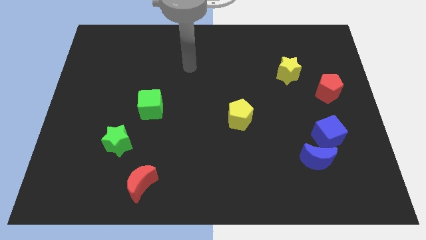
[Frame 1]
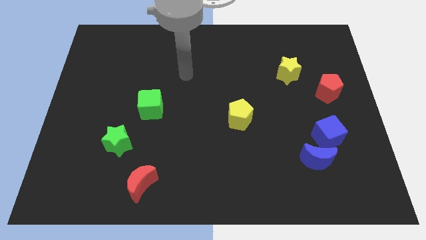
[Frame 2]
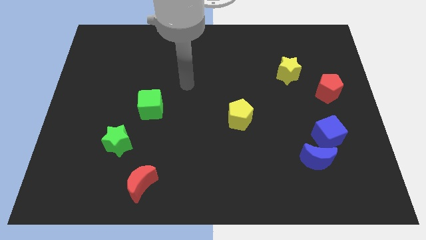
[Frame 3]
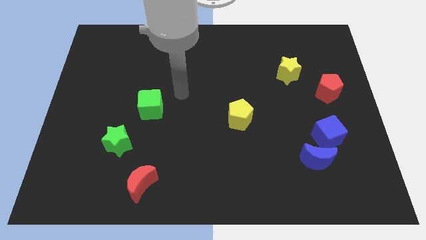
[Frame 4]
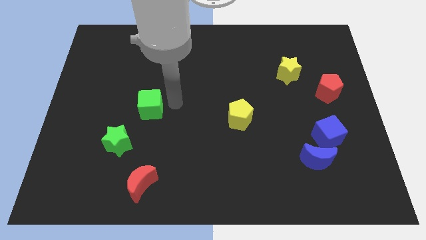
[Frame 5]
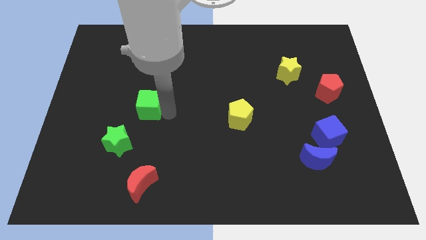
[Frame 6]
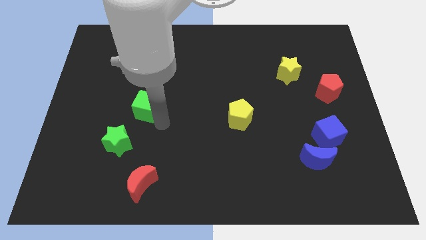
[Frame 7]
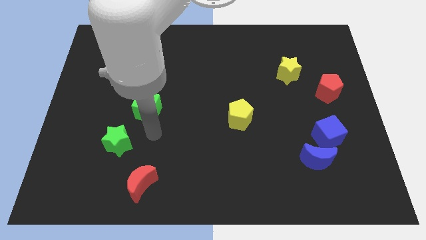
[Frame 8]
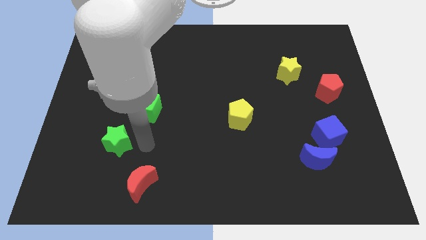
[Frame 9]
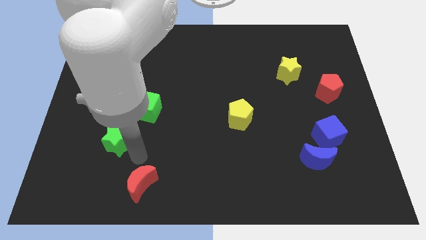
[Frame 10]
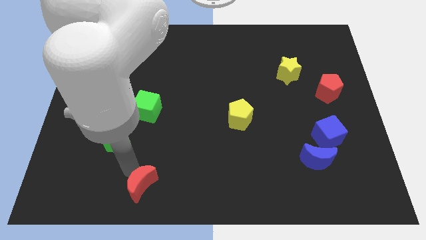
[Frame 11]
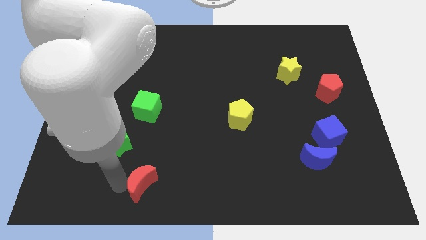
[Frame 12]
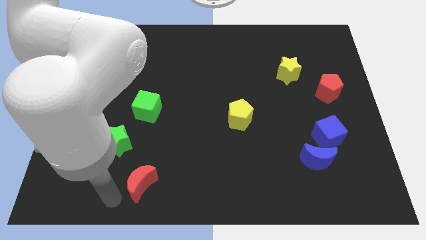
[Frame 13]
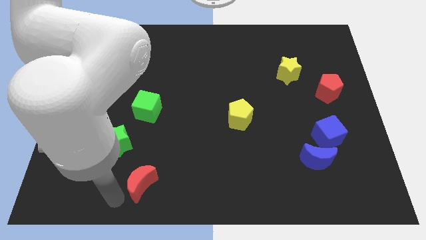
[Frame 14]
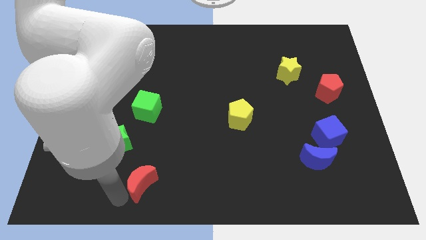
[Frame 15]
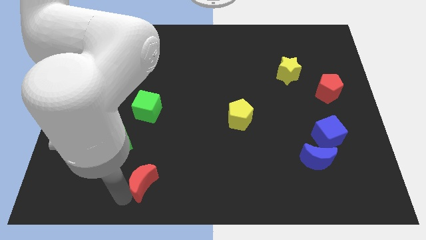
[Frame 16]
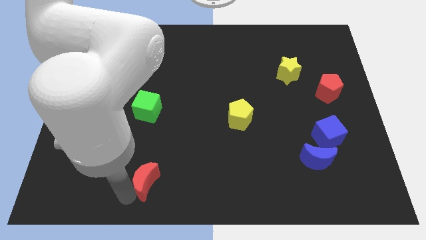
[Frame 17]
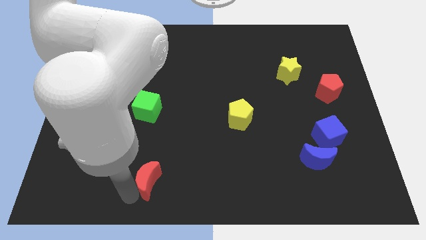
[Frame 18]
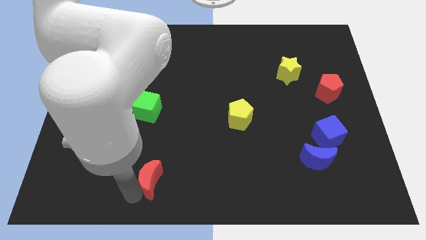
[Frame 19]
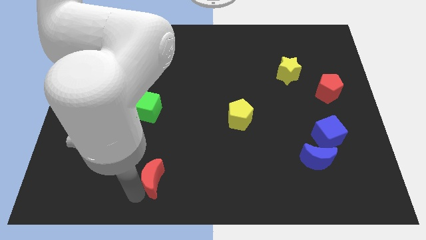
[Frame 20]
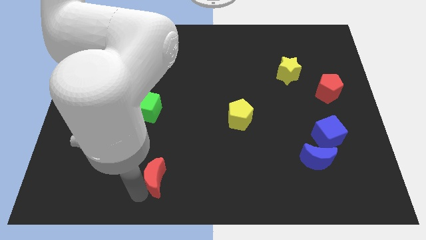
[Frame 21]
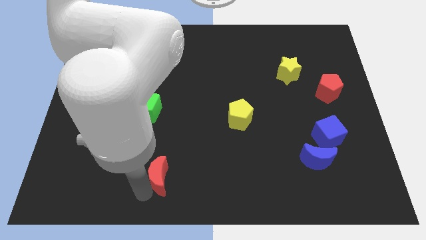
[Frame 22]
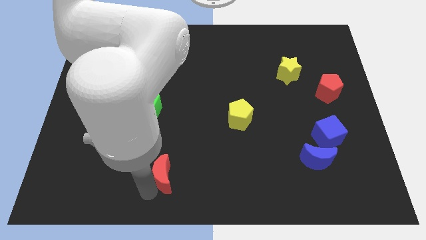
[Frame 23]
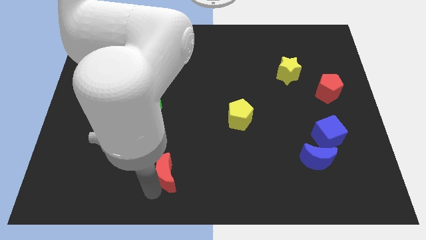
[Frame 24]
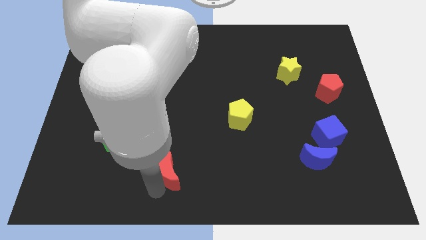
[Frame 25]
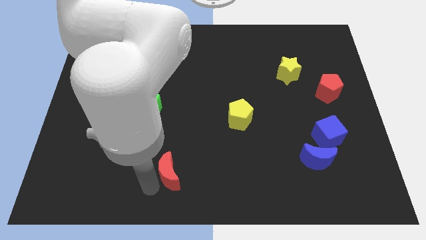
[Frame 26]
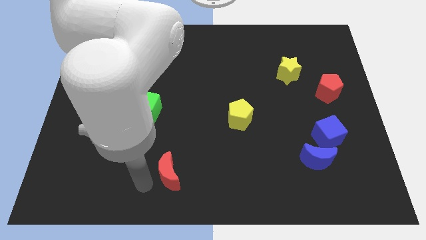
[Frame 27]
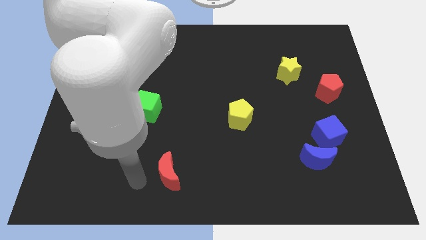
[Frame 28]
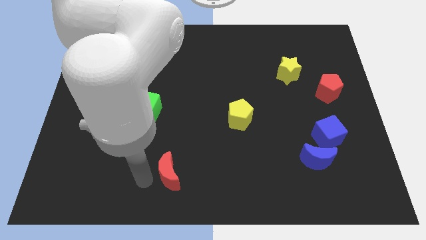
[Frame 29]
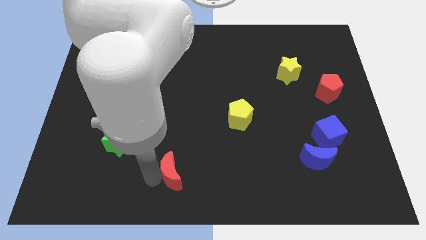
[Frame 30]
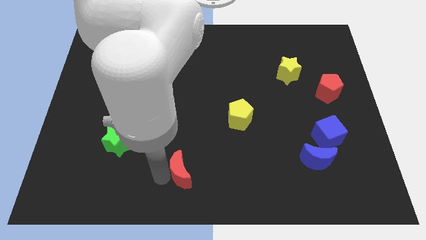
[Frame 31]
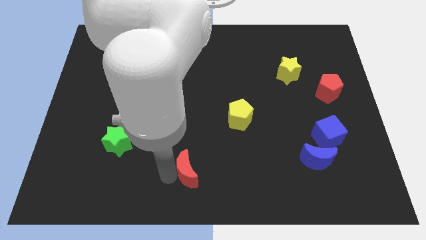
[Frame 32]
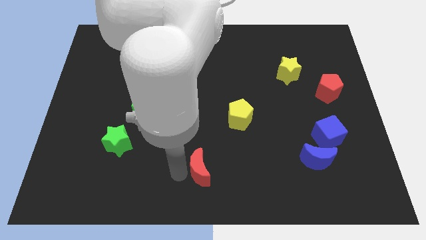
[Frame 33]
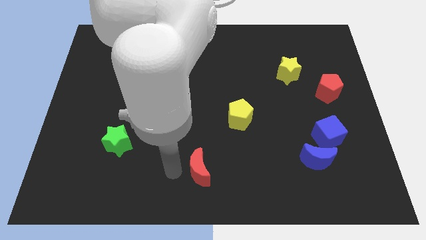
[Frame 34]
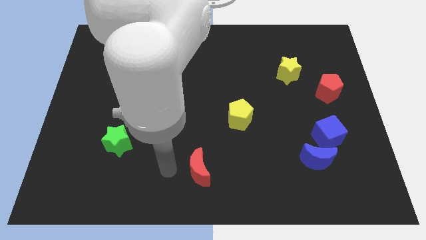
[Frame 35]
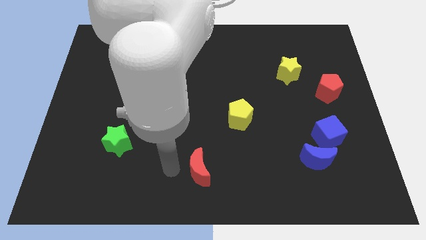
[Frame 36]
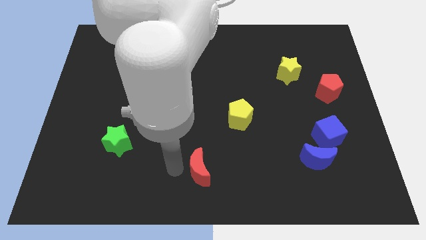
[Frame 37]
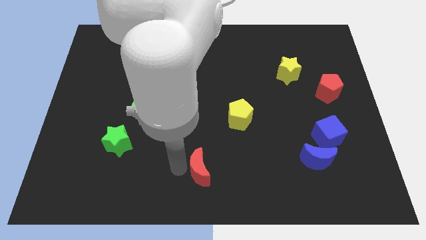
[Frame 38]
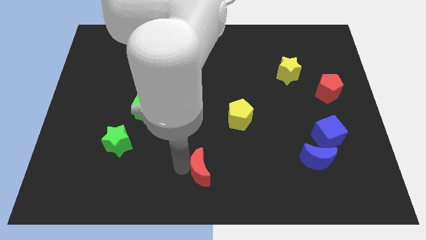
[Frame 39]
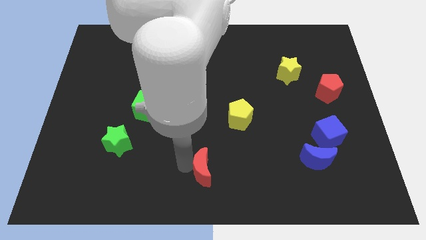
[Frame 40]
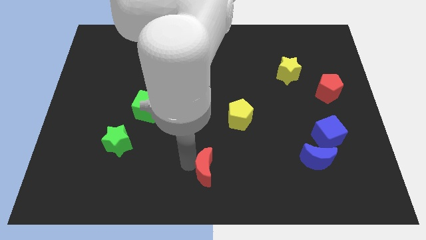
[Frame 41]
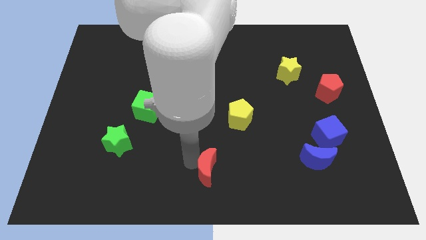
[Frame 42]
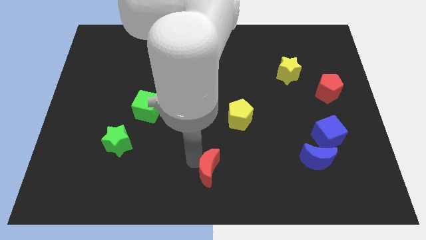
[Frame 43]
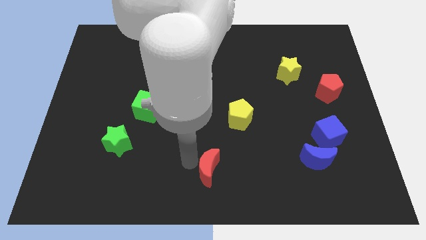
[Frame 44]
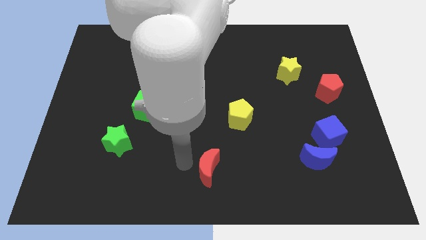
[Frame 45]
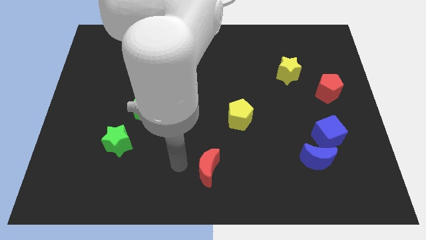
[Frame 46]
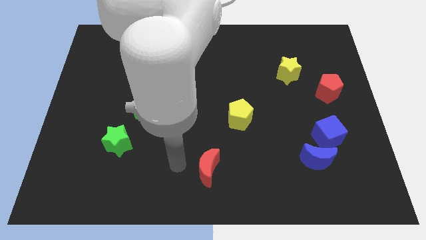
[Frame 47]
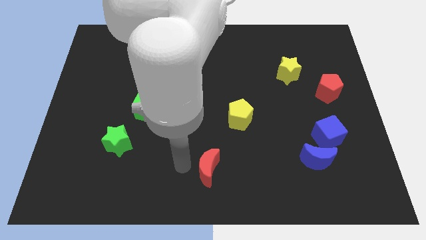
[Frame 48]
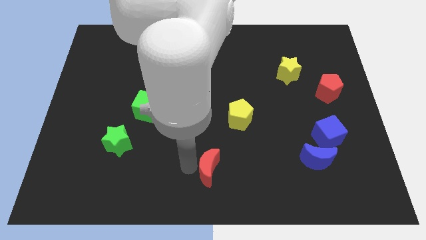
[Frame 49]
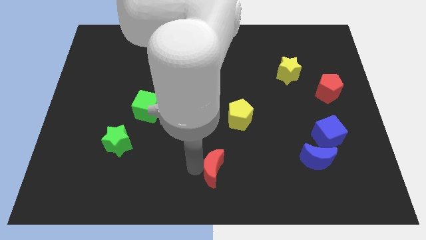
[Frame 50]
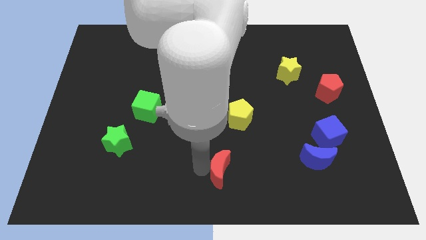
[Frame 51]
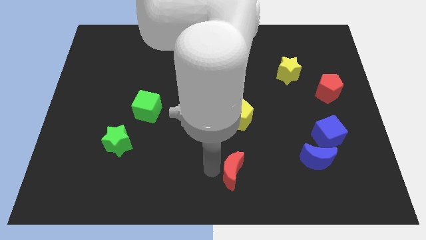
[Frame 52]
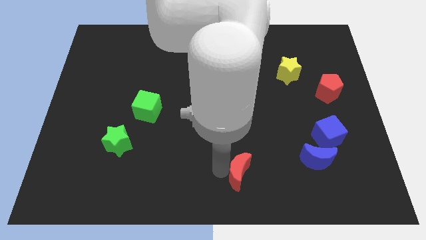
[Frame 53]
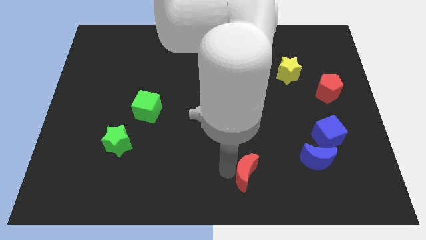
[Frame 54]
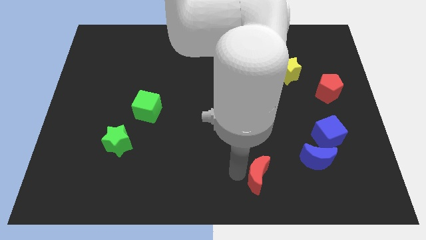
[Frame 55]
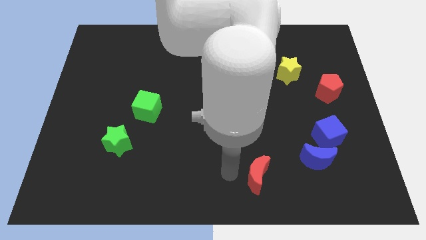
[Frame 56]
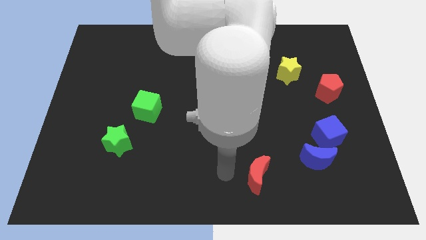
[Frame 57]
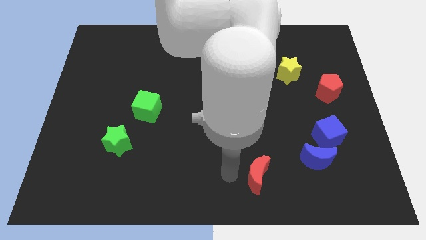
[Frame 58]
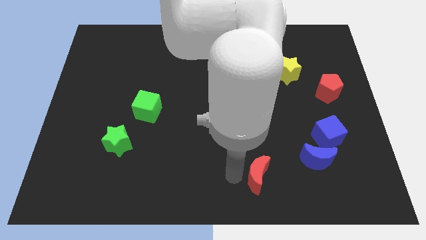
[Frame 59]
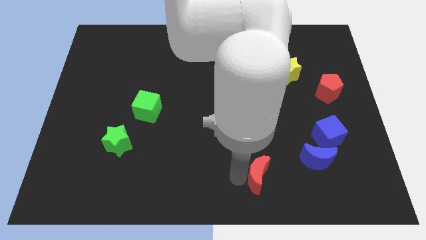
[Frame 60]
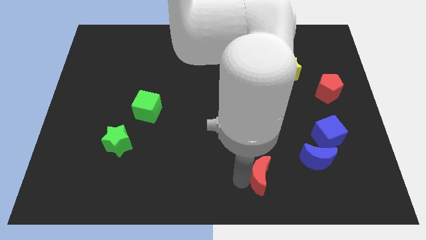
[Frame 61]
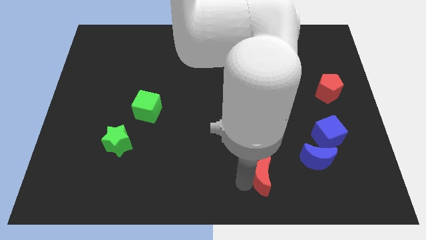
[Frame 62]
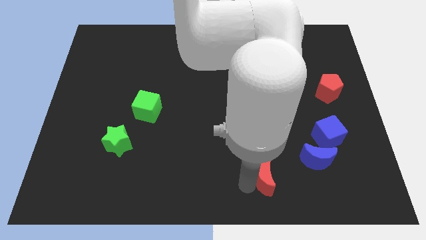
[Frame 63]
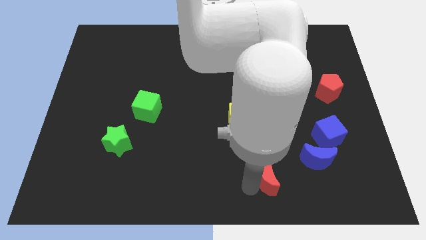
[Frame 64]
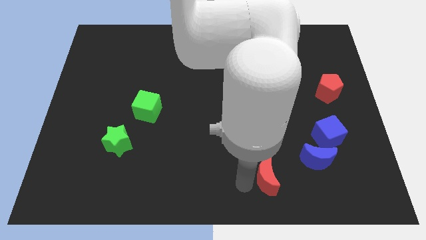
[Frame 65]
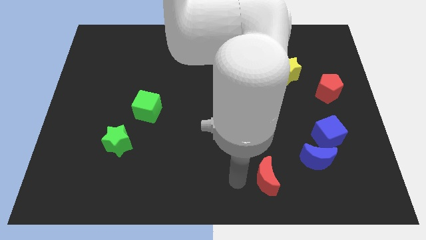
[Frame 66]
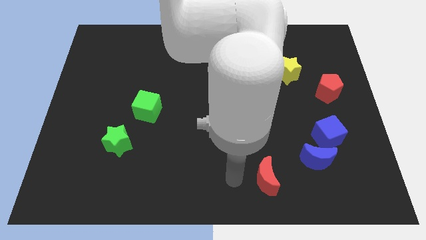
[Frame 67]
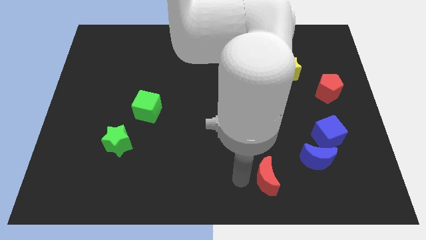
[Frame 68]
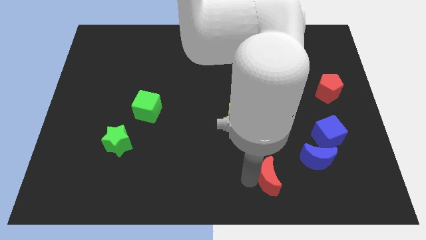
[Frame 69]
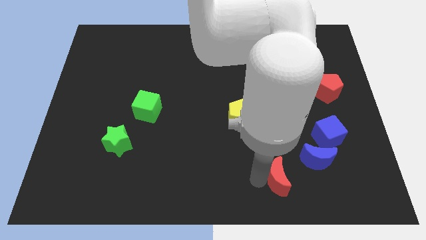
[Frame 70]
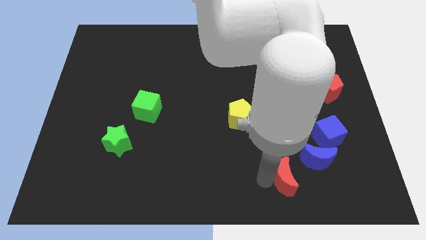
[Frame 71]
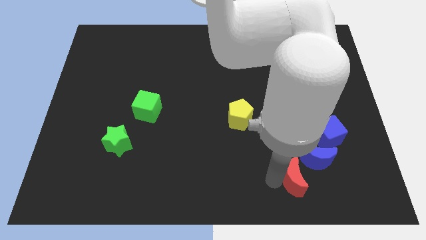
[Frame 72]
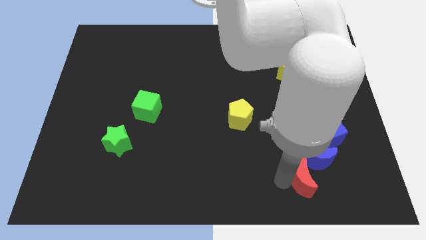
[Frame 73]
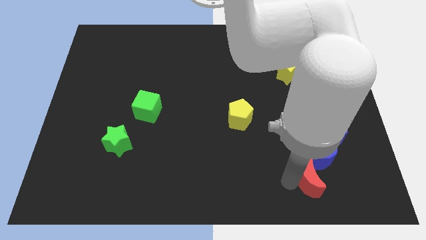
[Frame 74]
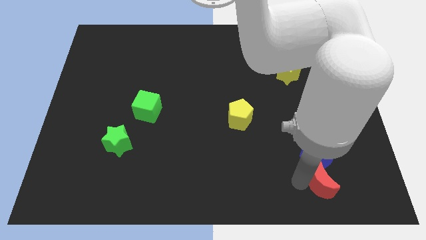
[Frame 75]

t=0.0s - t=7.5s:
push the red moon diagonally down and to the right of the blue moon
